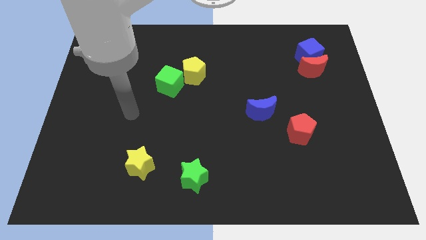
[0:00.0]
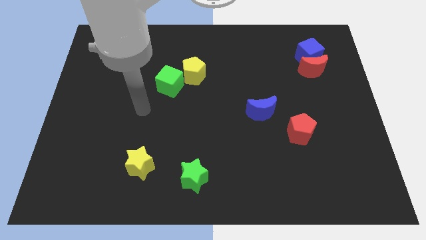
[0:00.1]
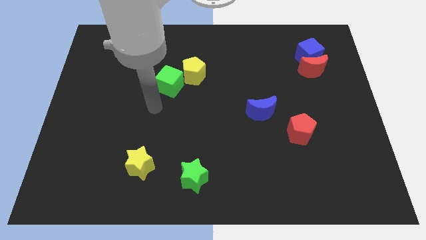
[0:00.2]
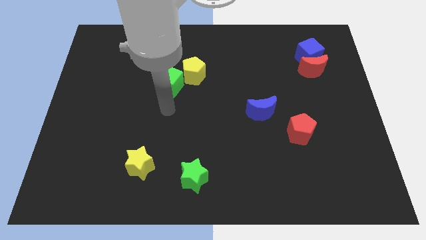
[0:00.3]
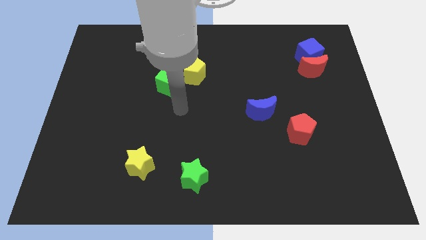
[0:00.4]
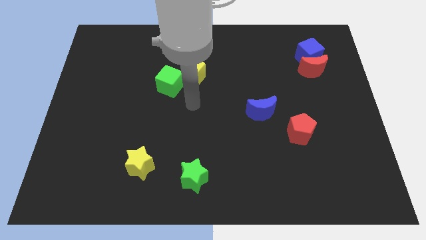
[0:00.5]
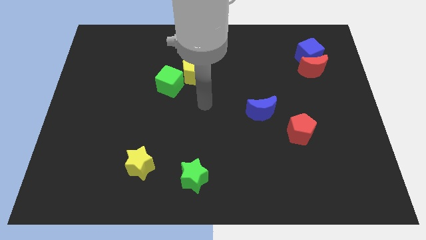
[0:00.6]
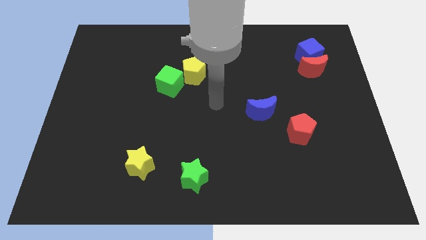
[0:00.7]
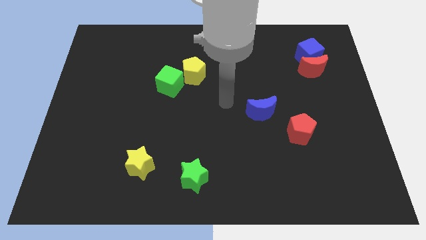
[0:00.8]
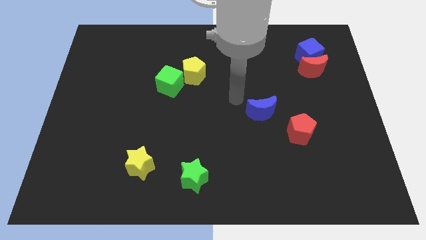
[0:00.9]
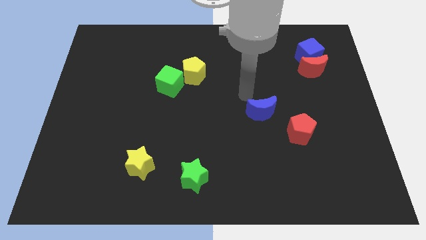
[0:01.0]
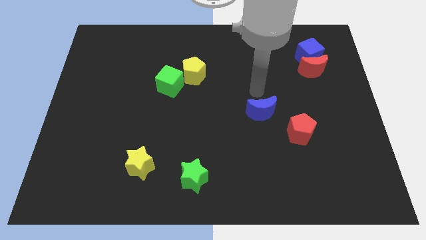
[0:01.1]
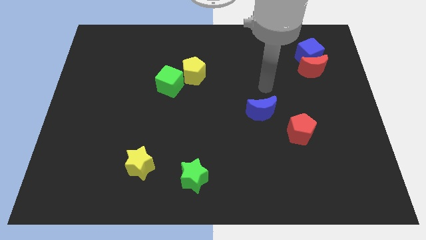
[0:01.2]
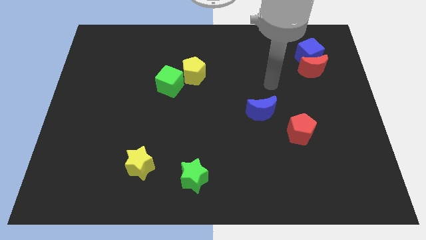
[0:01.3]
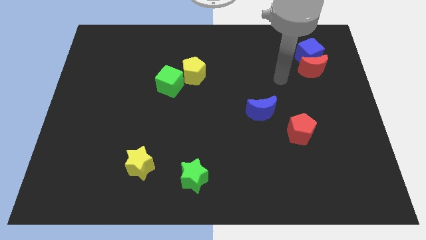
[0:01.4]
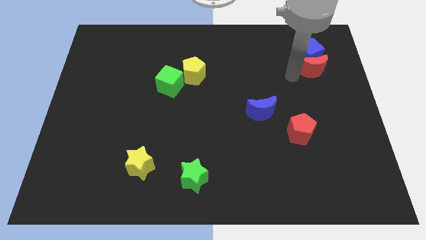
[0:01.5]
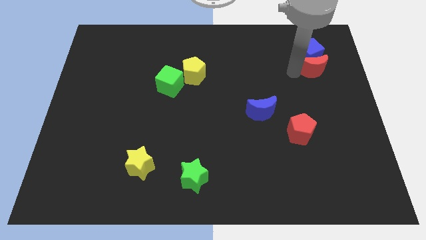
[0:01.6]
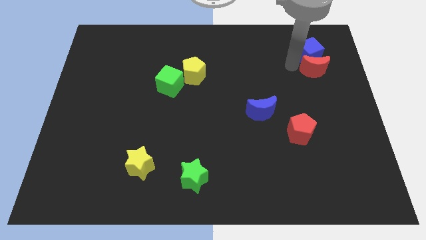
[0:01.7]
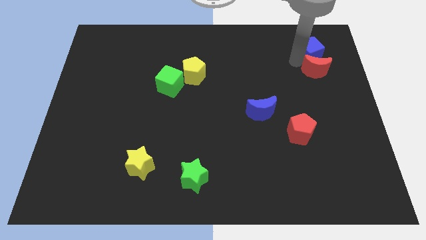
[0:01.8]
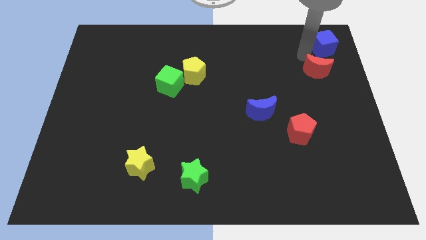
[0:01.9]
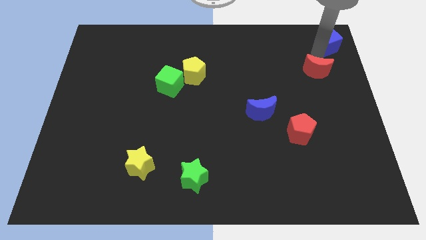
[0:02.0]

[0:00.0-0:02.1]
move the red moon away from the blue cube

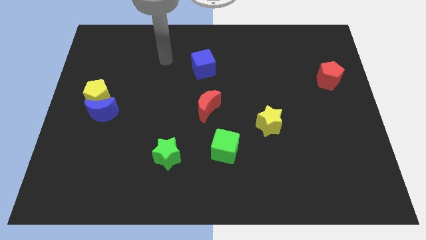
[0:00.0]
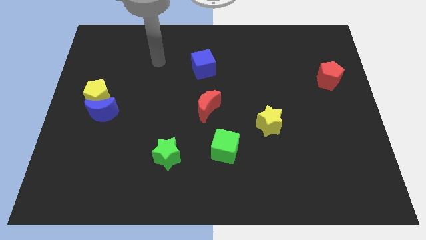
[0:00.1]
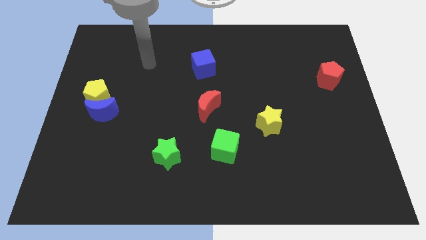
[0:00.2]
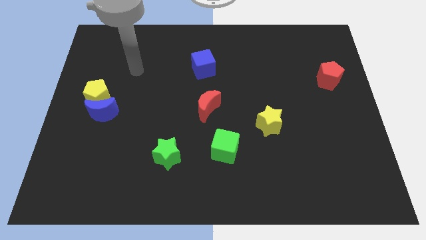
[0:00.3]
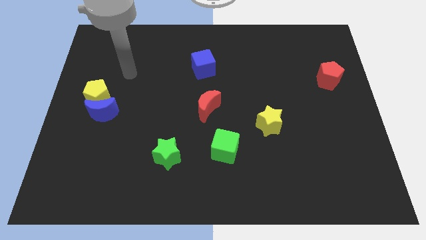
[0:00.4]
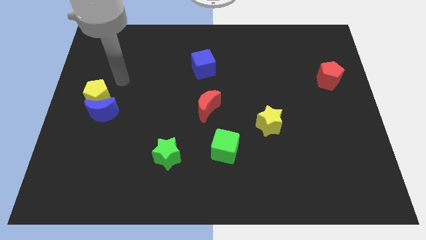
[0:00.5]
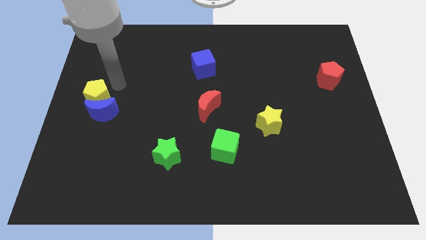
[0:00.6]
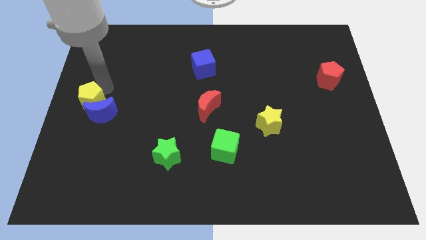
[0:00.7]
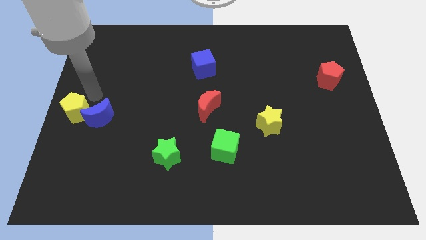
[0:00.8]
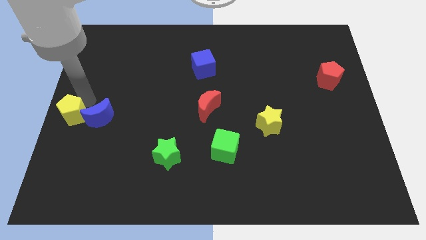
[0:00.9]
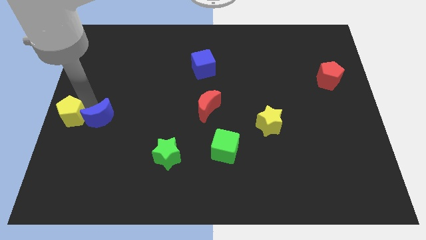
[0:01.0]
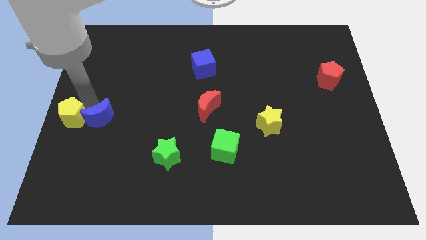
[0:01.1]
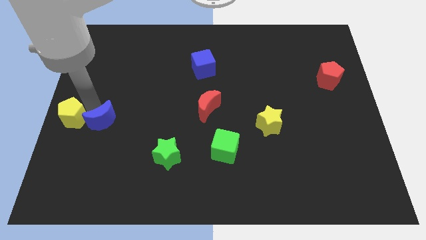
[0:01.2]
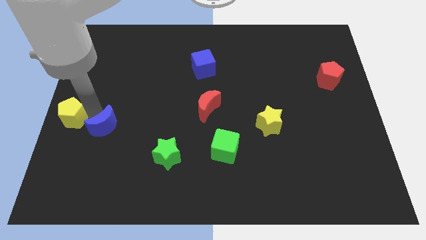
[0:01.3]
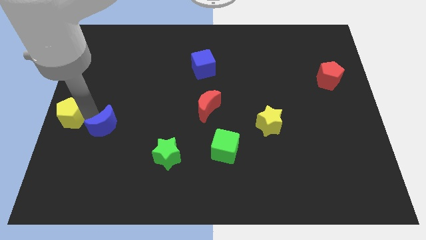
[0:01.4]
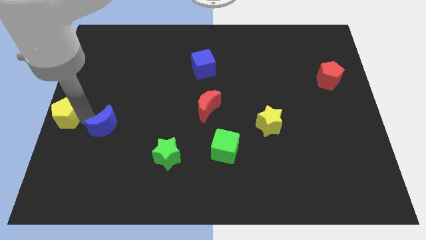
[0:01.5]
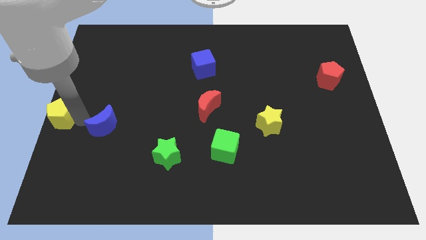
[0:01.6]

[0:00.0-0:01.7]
move the blue moon away from the yellow pentagon

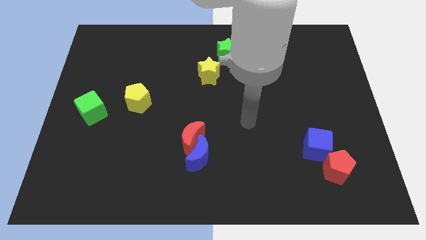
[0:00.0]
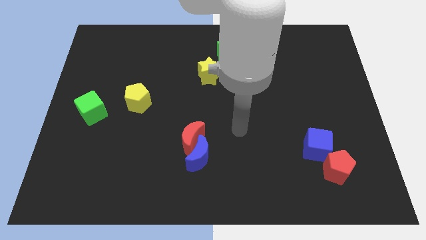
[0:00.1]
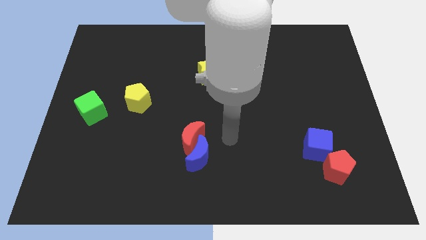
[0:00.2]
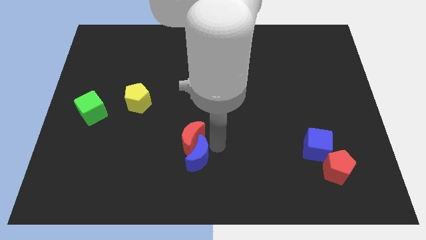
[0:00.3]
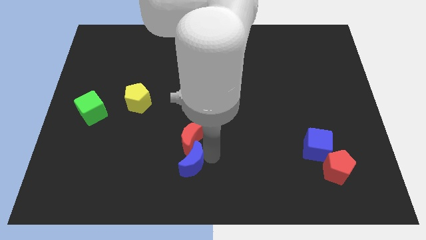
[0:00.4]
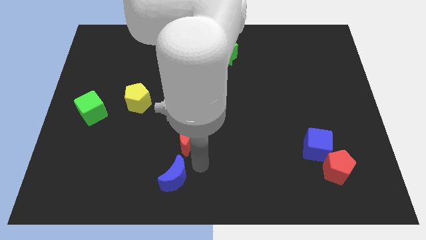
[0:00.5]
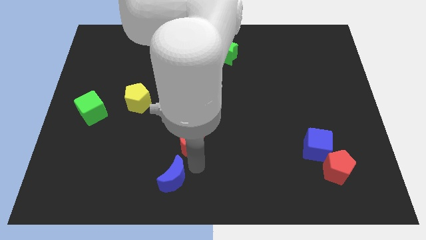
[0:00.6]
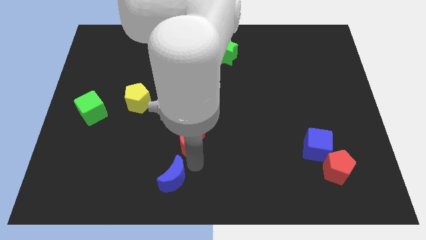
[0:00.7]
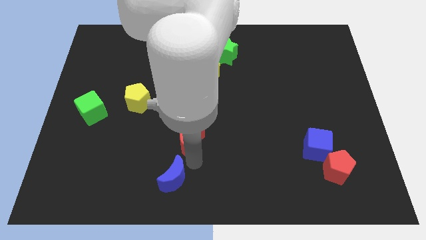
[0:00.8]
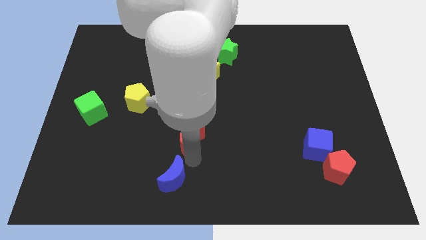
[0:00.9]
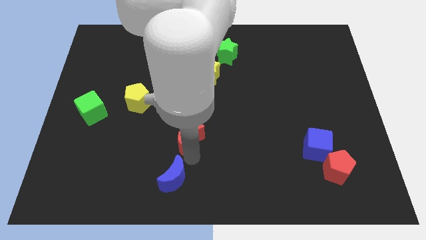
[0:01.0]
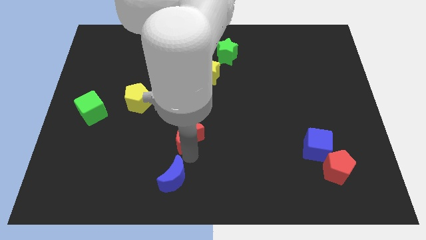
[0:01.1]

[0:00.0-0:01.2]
separate the red moon from the blue moon

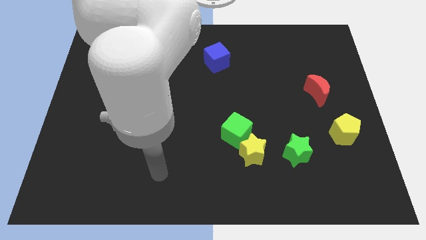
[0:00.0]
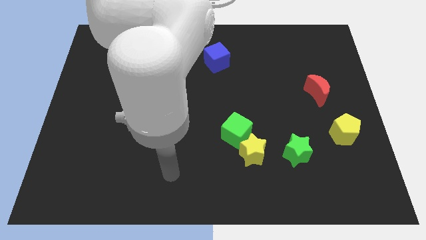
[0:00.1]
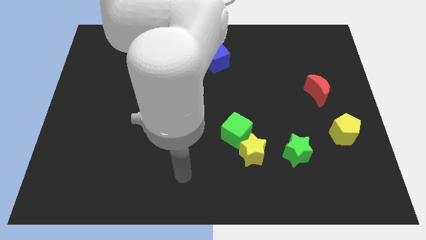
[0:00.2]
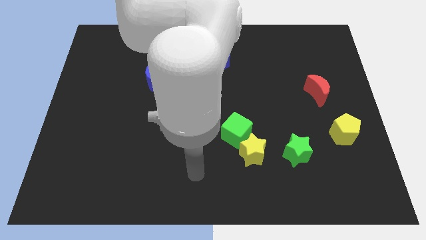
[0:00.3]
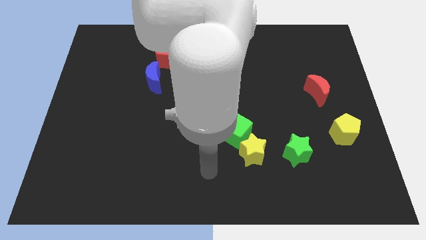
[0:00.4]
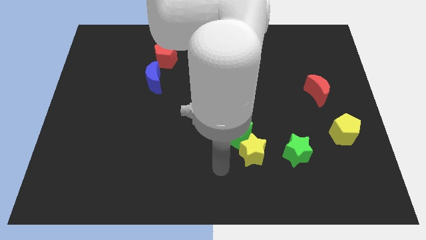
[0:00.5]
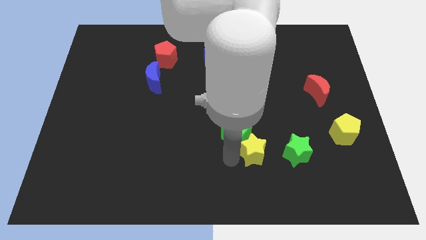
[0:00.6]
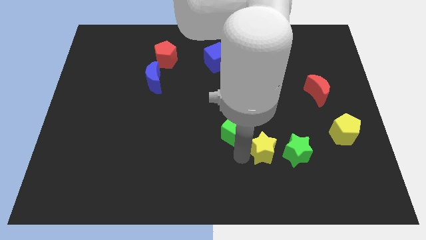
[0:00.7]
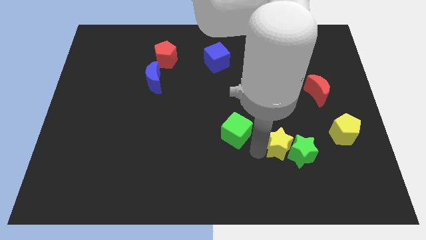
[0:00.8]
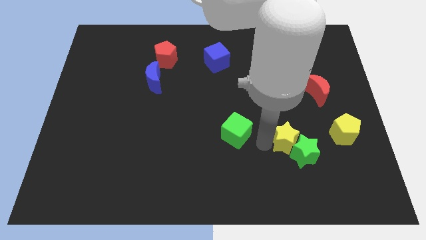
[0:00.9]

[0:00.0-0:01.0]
pull the green cube apart from the yellow star

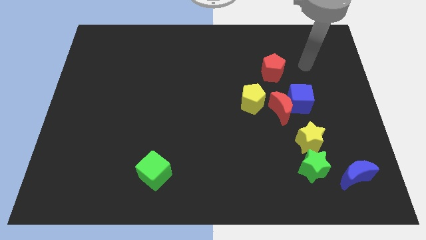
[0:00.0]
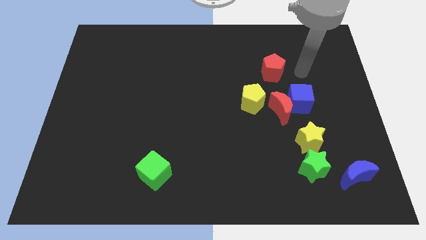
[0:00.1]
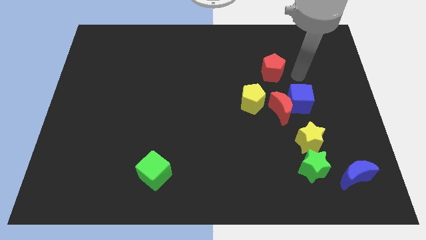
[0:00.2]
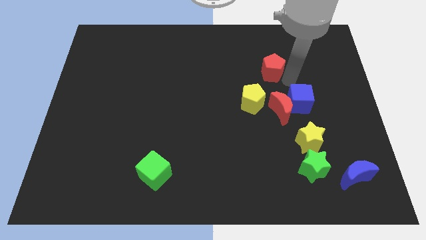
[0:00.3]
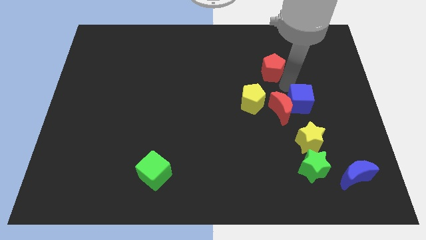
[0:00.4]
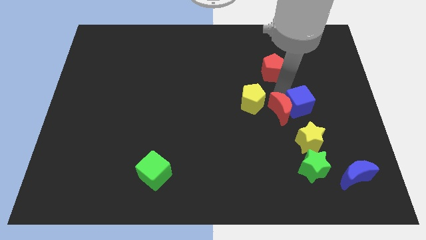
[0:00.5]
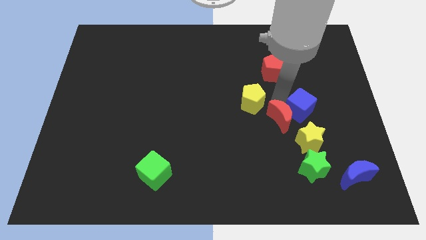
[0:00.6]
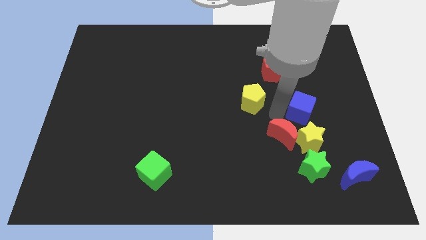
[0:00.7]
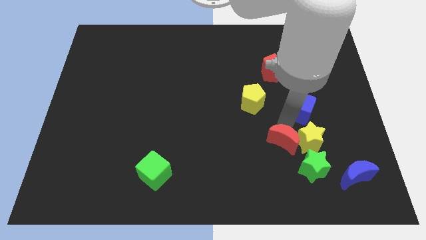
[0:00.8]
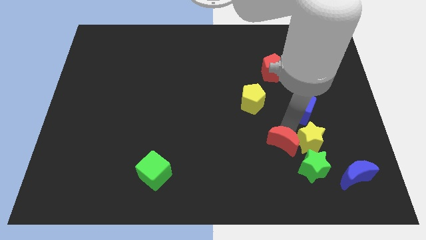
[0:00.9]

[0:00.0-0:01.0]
move the blue cube away from the red moon

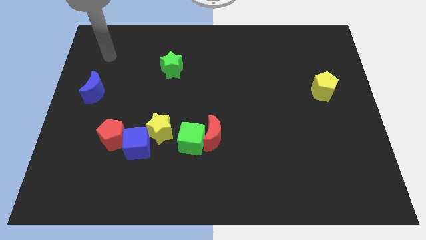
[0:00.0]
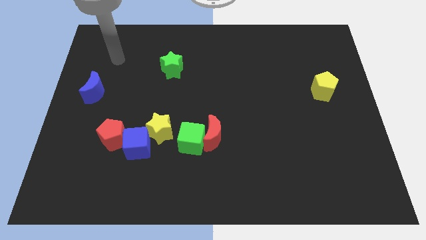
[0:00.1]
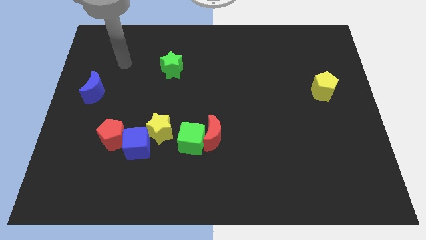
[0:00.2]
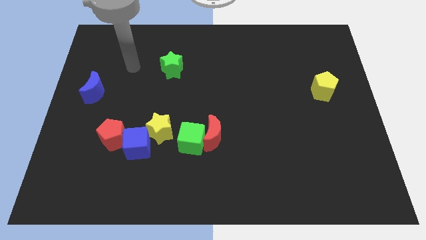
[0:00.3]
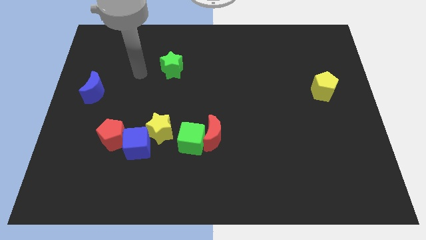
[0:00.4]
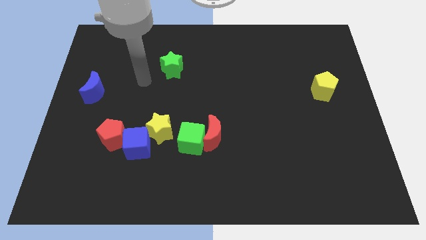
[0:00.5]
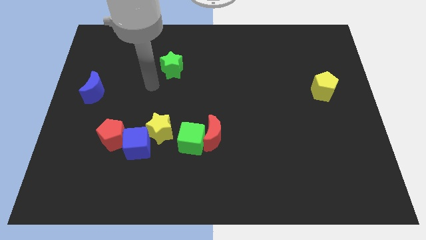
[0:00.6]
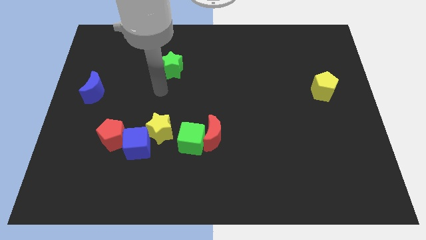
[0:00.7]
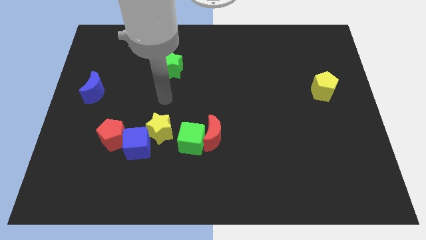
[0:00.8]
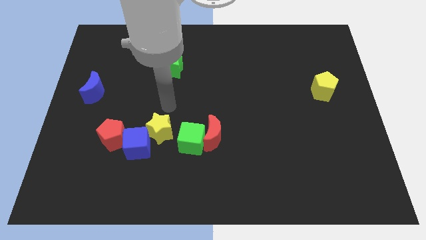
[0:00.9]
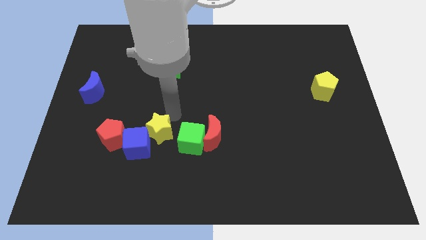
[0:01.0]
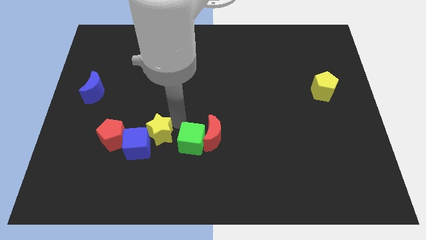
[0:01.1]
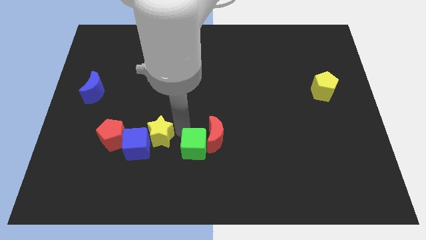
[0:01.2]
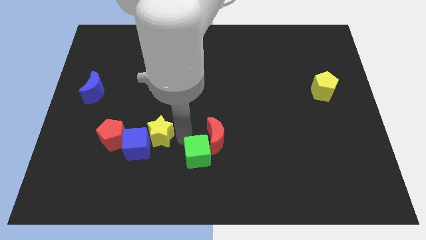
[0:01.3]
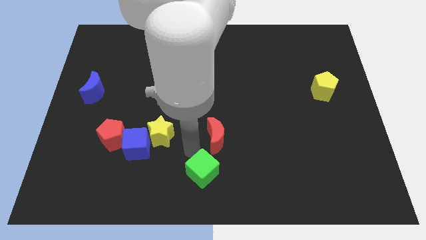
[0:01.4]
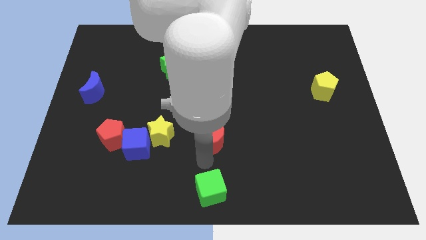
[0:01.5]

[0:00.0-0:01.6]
pull the red moon apart from the green cube

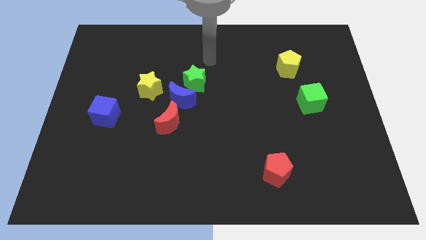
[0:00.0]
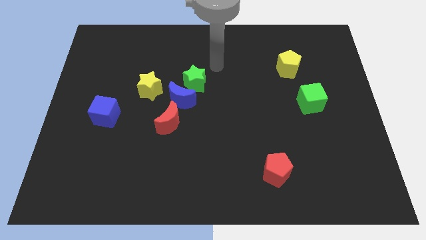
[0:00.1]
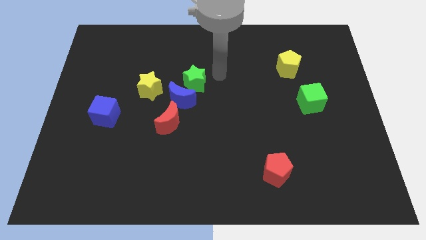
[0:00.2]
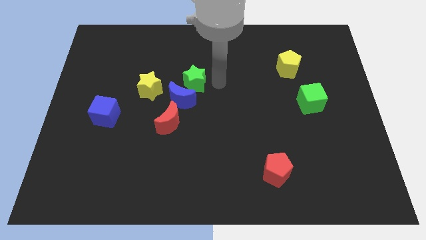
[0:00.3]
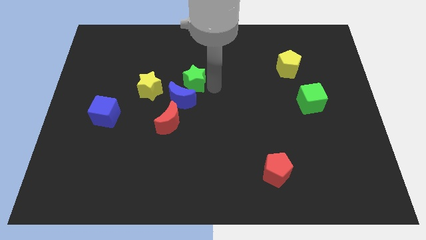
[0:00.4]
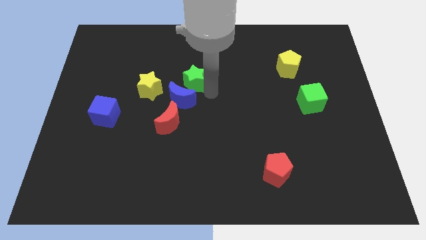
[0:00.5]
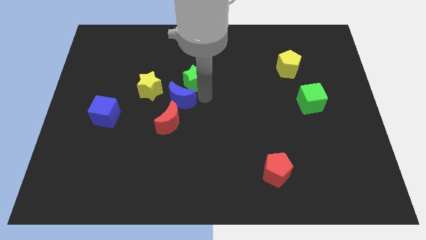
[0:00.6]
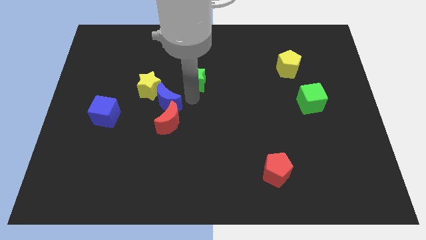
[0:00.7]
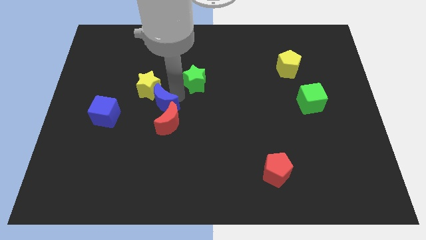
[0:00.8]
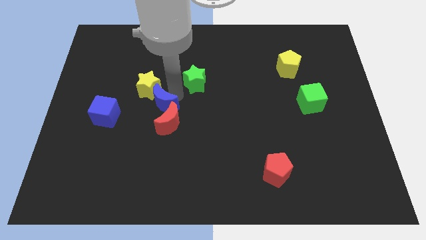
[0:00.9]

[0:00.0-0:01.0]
pull the green star apart from the blue moon
